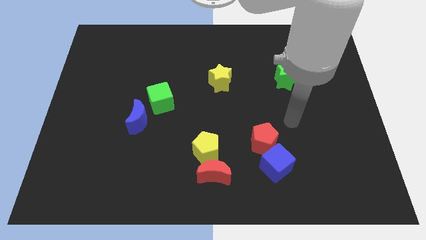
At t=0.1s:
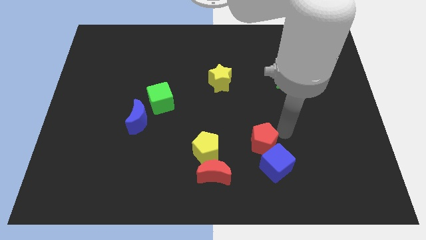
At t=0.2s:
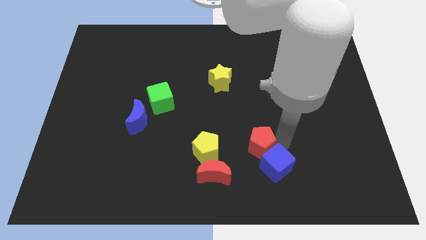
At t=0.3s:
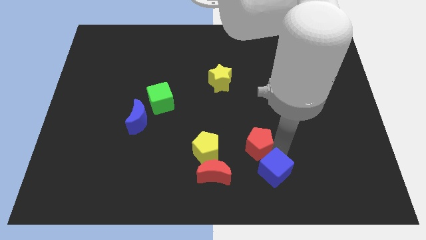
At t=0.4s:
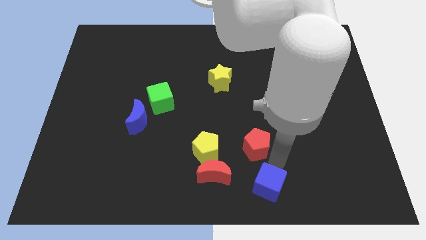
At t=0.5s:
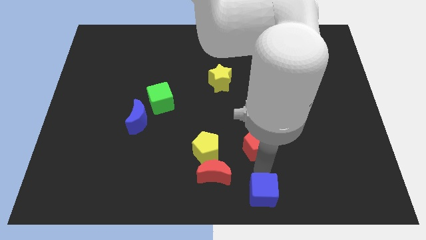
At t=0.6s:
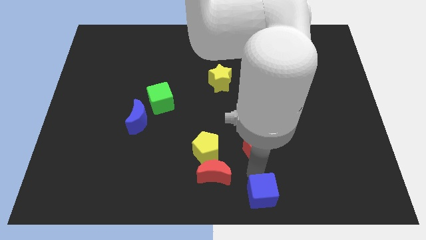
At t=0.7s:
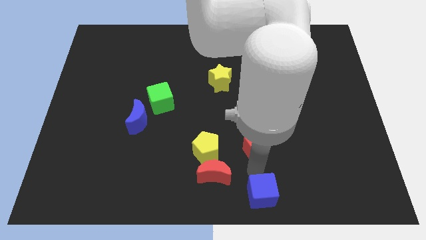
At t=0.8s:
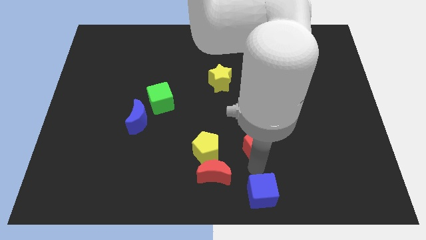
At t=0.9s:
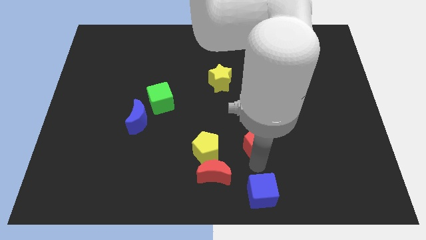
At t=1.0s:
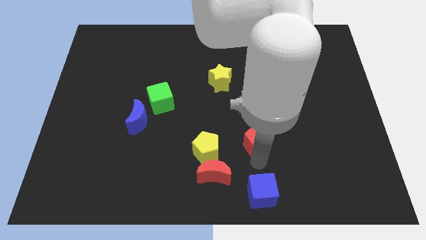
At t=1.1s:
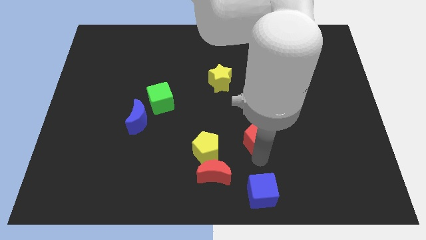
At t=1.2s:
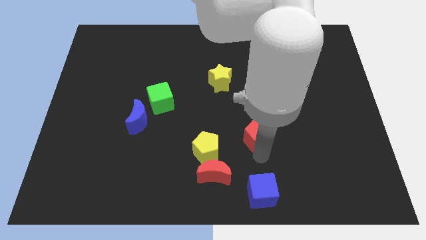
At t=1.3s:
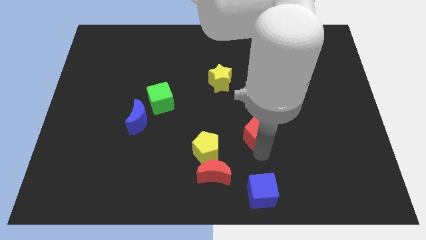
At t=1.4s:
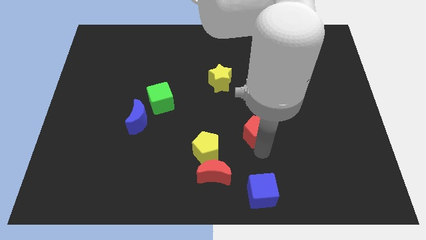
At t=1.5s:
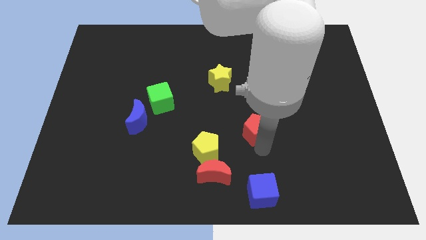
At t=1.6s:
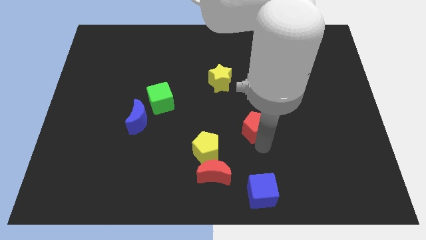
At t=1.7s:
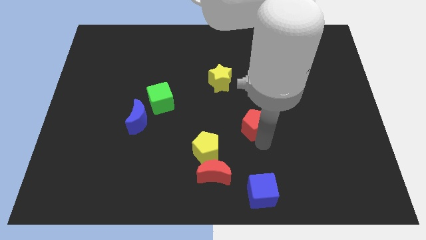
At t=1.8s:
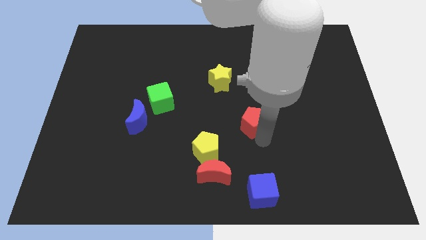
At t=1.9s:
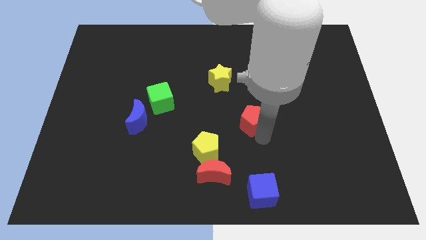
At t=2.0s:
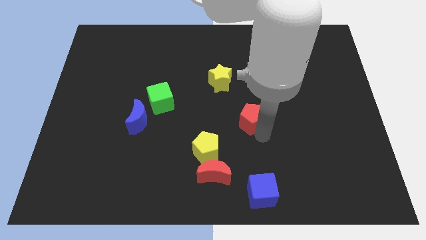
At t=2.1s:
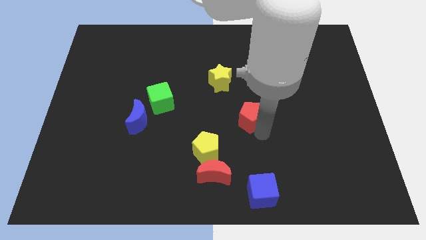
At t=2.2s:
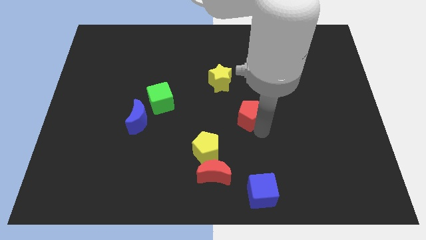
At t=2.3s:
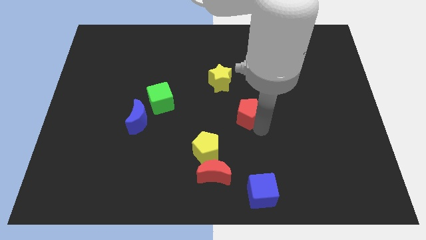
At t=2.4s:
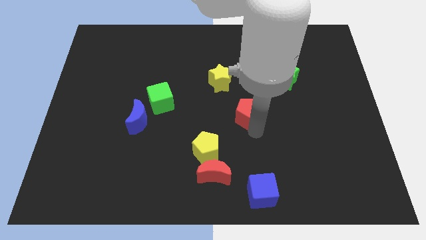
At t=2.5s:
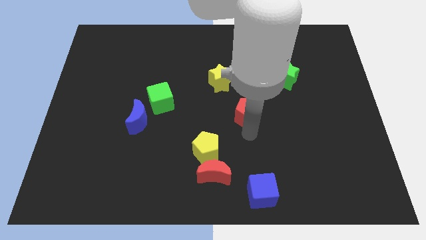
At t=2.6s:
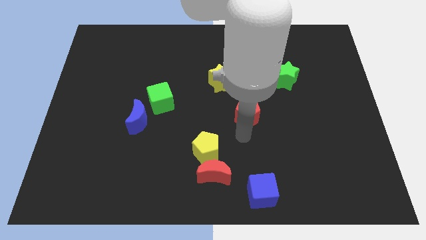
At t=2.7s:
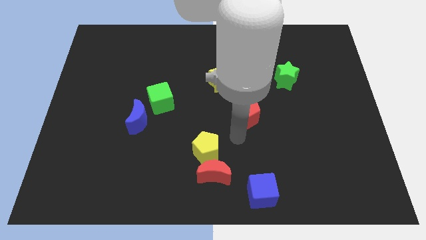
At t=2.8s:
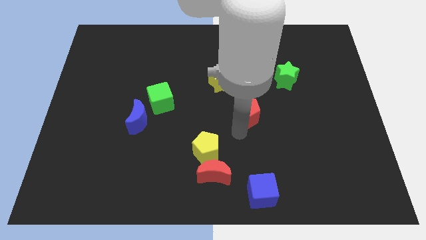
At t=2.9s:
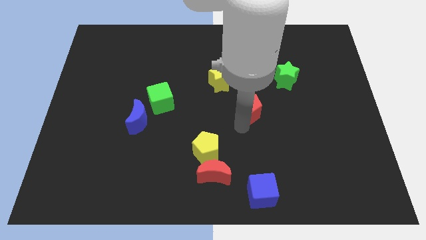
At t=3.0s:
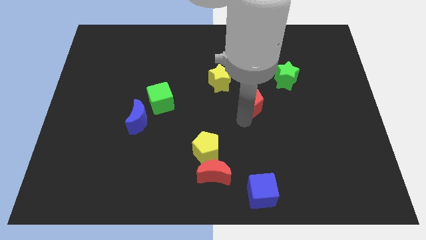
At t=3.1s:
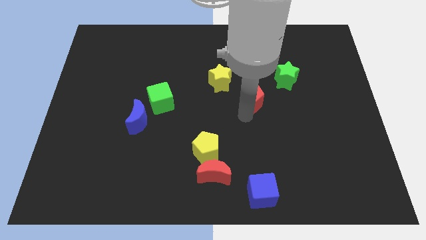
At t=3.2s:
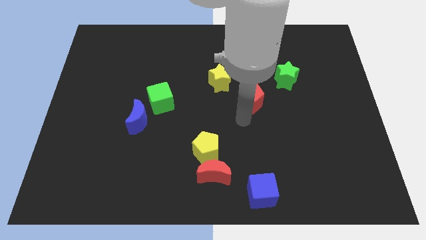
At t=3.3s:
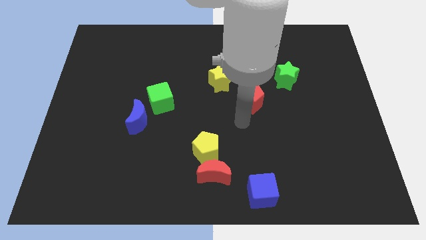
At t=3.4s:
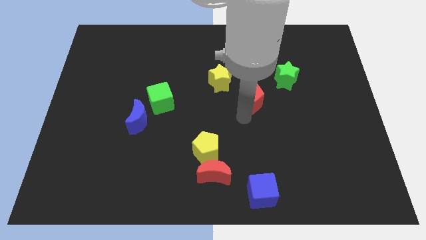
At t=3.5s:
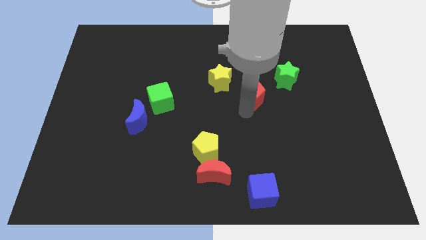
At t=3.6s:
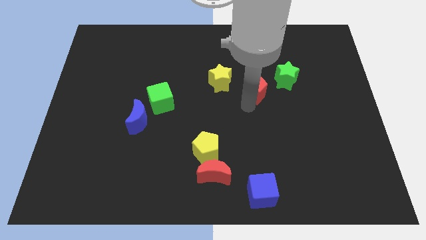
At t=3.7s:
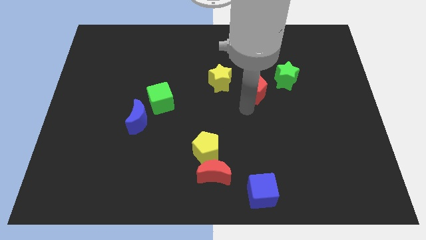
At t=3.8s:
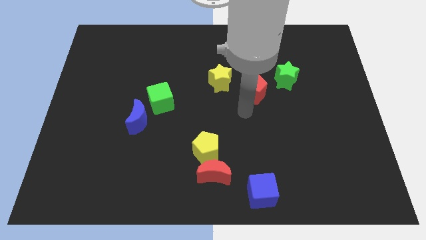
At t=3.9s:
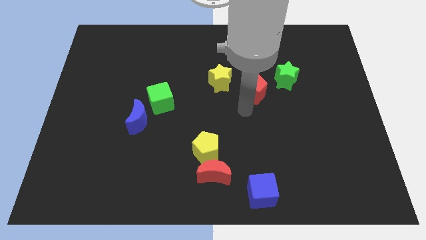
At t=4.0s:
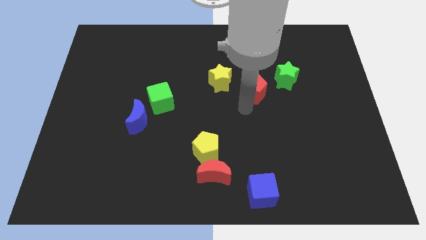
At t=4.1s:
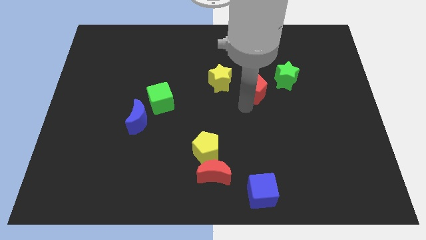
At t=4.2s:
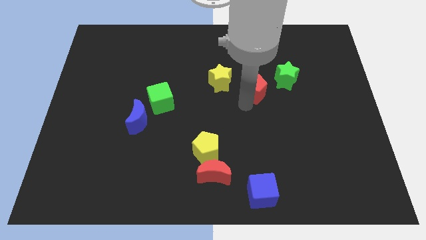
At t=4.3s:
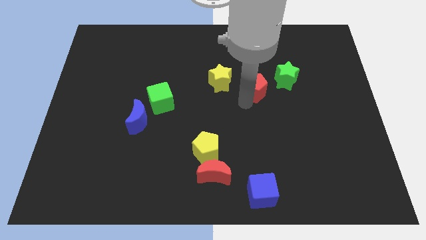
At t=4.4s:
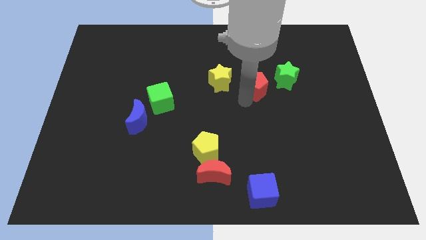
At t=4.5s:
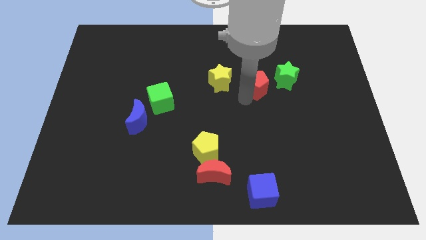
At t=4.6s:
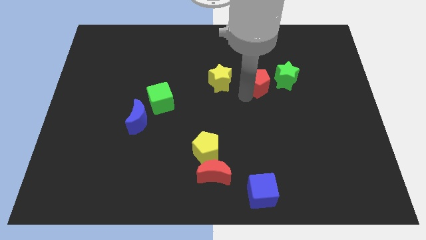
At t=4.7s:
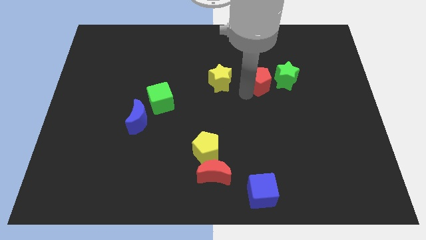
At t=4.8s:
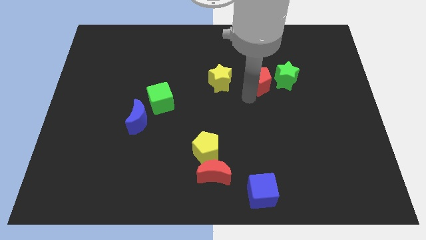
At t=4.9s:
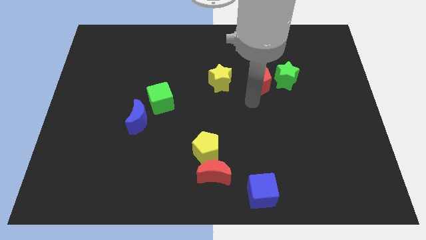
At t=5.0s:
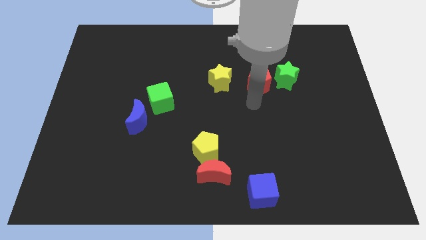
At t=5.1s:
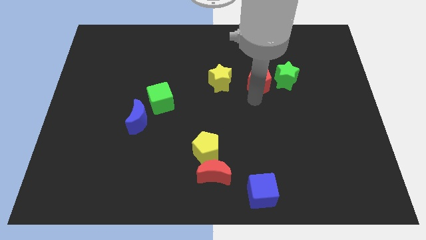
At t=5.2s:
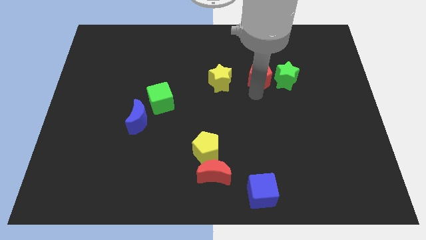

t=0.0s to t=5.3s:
put the red pentagon to the top left of the green star

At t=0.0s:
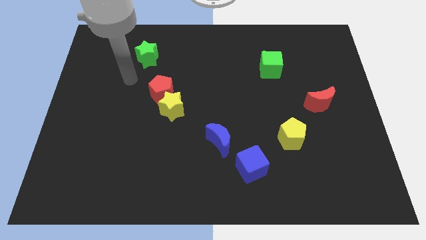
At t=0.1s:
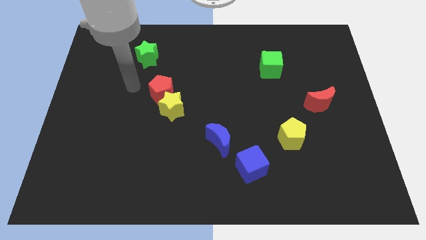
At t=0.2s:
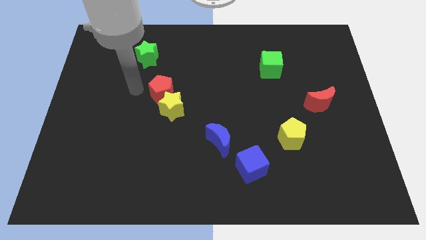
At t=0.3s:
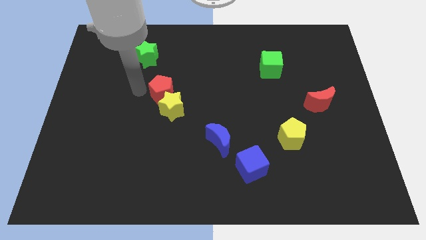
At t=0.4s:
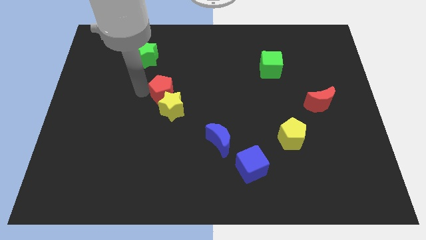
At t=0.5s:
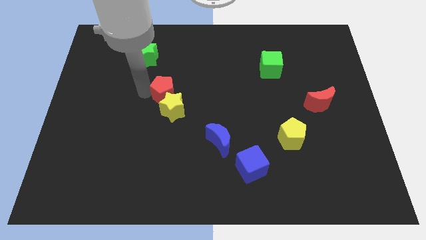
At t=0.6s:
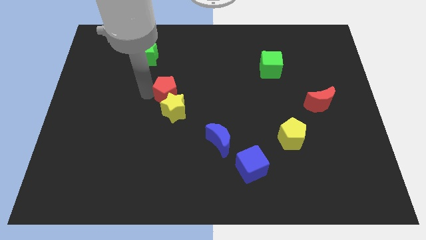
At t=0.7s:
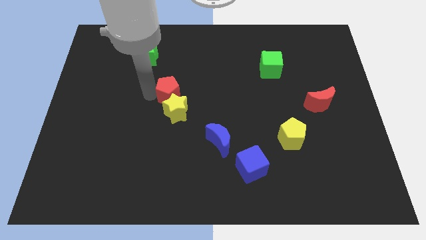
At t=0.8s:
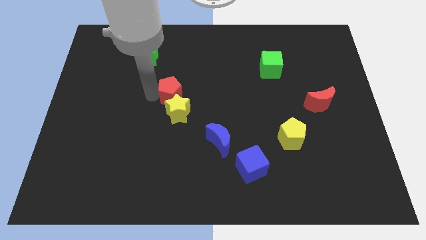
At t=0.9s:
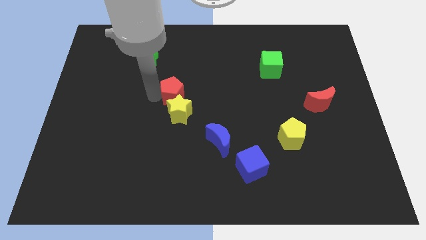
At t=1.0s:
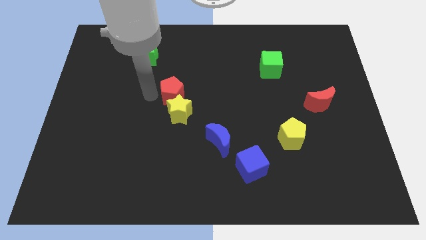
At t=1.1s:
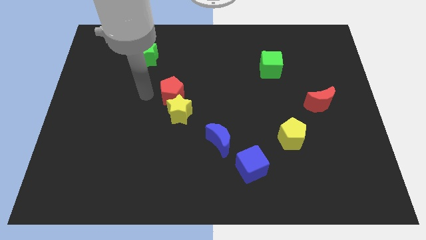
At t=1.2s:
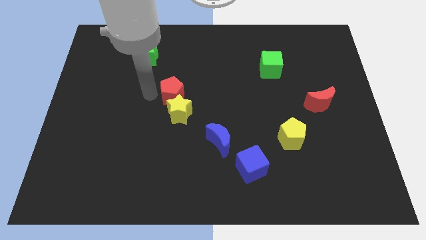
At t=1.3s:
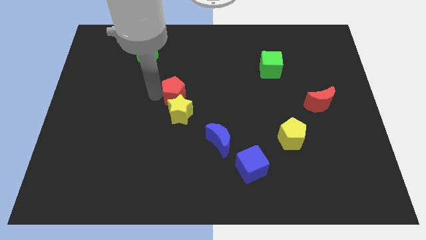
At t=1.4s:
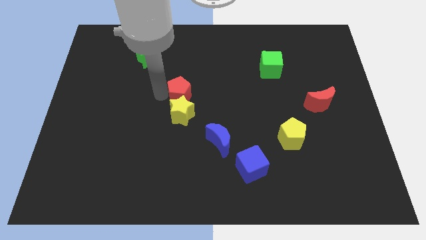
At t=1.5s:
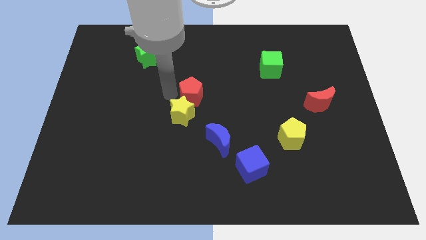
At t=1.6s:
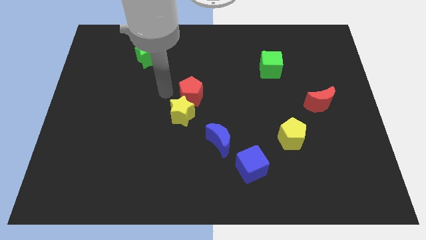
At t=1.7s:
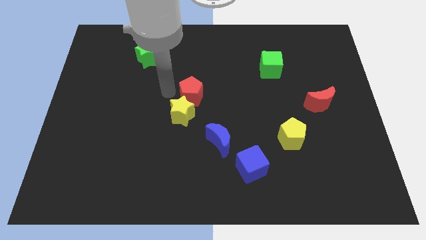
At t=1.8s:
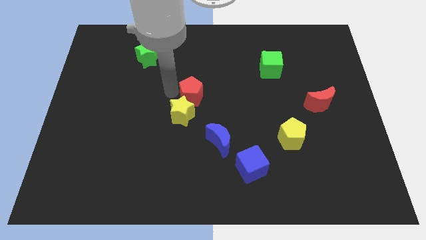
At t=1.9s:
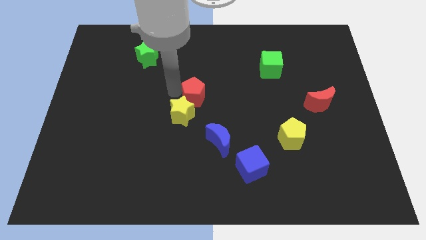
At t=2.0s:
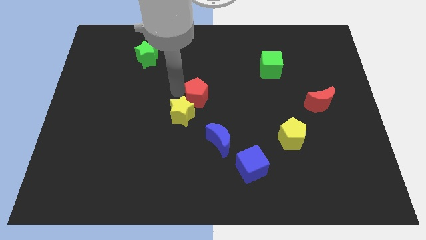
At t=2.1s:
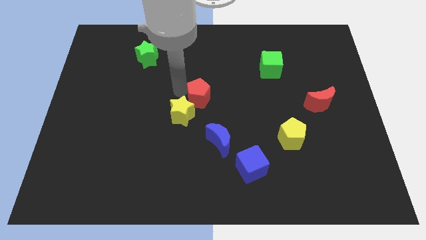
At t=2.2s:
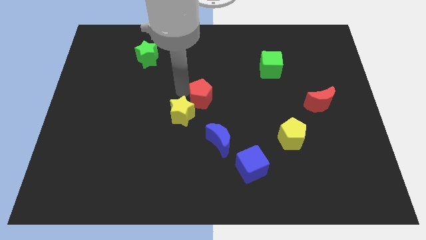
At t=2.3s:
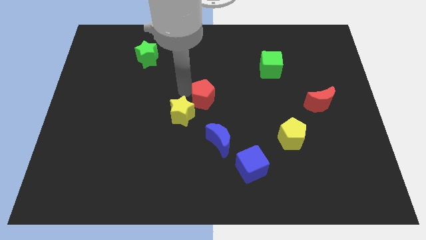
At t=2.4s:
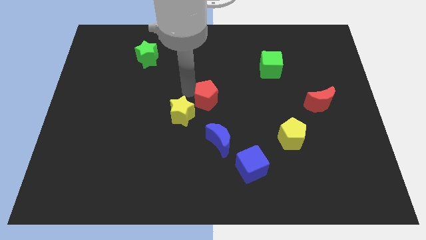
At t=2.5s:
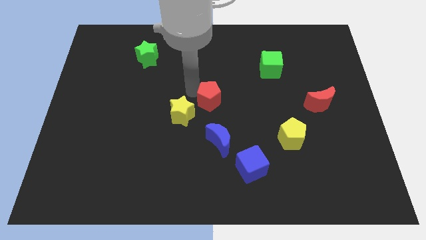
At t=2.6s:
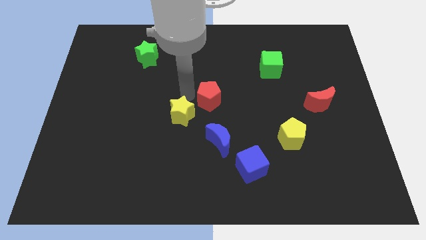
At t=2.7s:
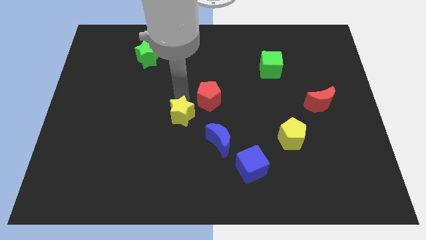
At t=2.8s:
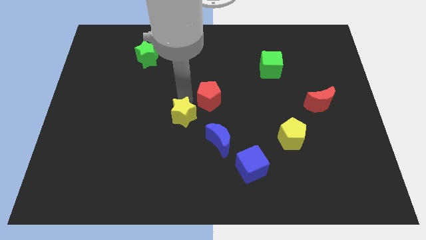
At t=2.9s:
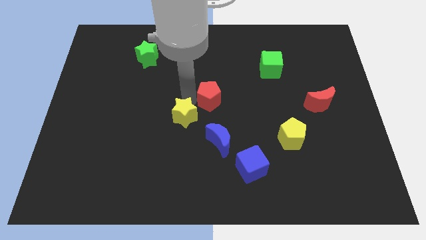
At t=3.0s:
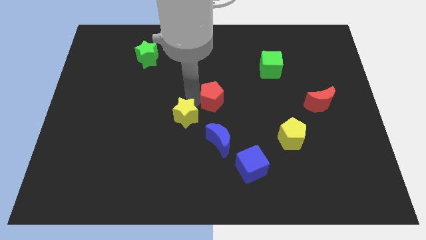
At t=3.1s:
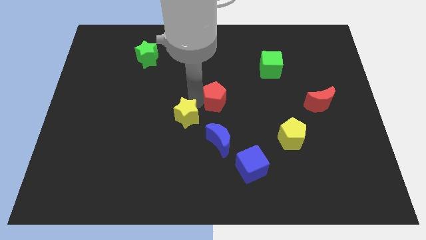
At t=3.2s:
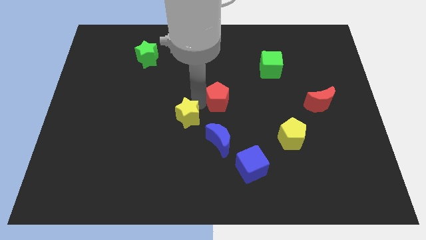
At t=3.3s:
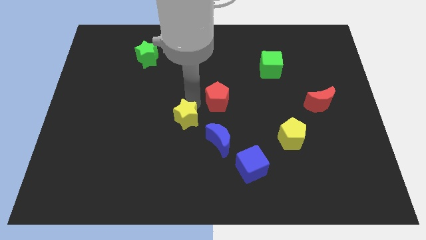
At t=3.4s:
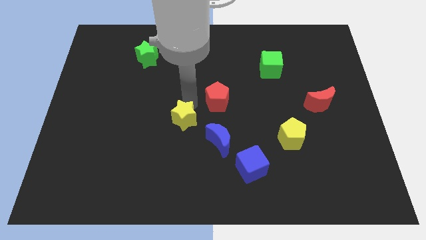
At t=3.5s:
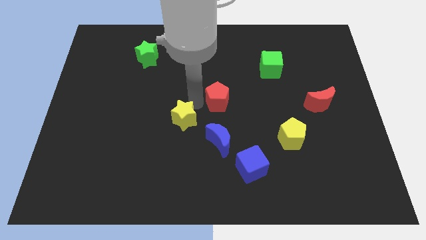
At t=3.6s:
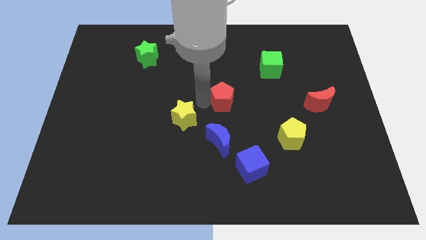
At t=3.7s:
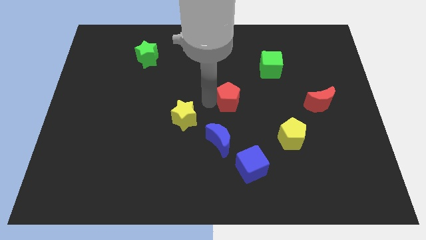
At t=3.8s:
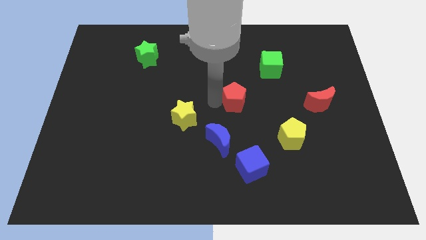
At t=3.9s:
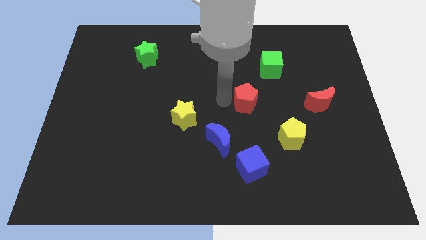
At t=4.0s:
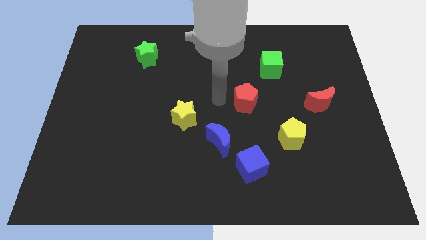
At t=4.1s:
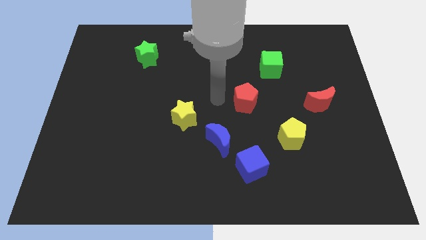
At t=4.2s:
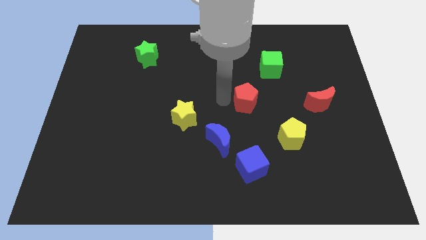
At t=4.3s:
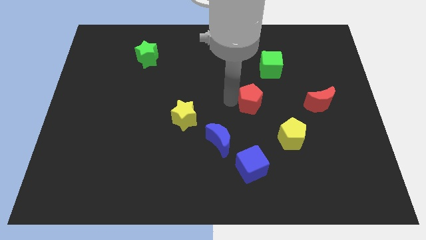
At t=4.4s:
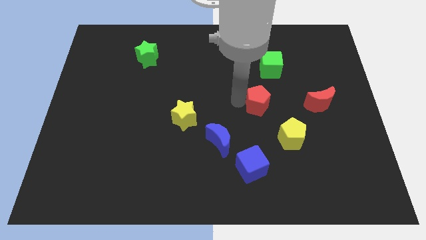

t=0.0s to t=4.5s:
put the red pentagon left of the red moon
